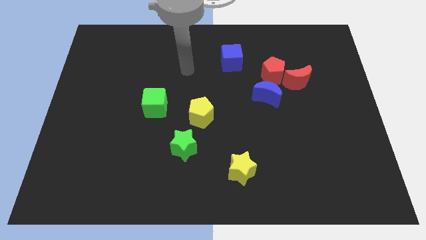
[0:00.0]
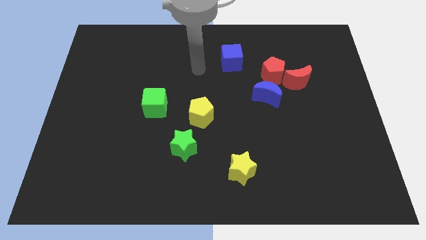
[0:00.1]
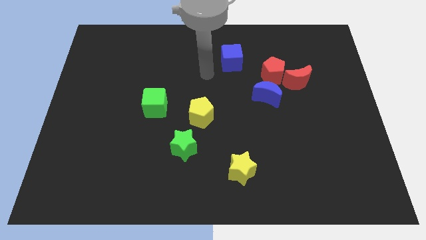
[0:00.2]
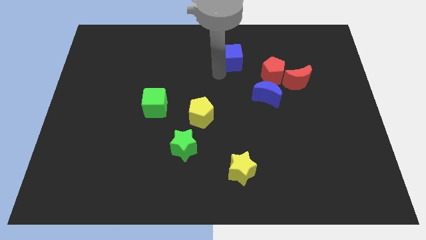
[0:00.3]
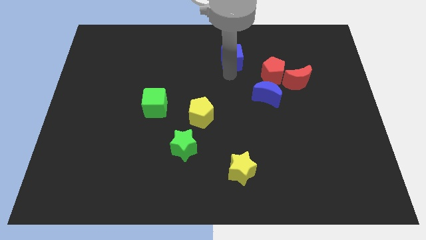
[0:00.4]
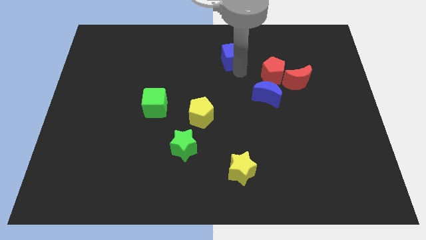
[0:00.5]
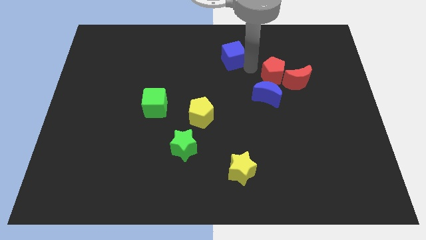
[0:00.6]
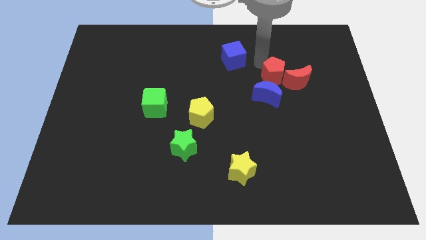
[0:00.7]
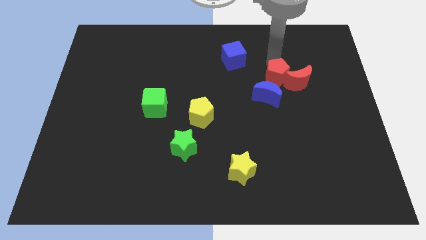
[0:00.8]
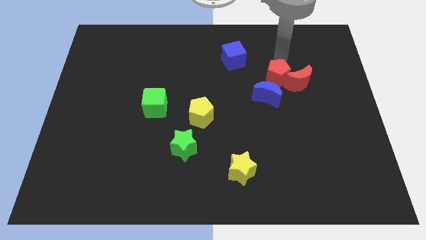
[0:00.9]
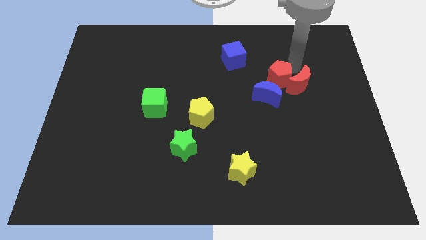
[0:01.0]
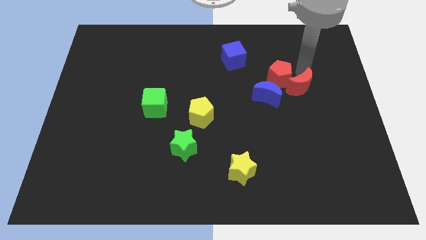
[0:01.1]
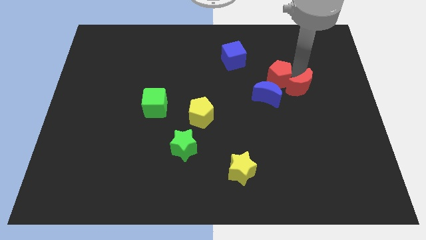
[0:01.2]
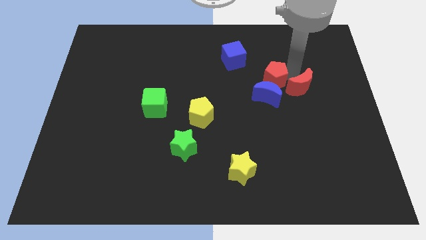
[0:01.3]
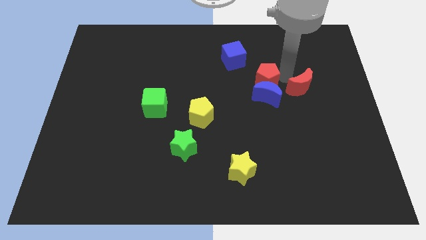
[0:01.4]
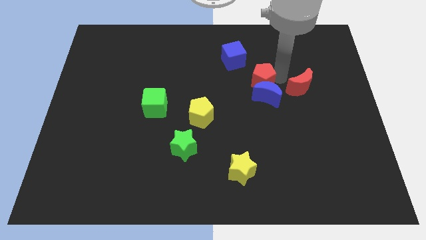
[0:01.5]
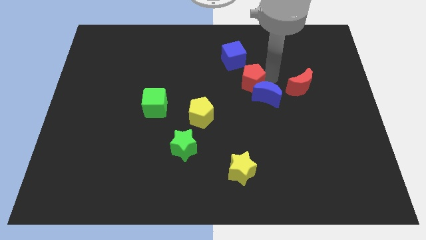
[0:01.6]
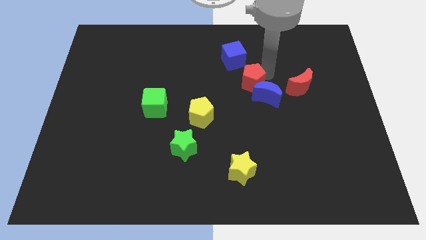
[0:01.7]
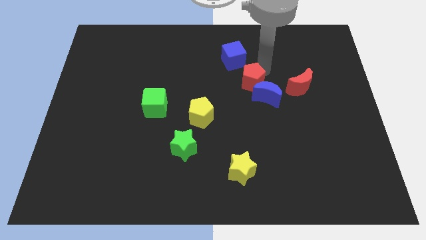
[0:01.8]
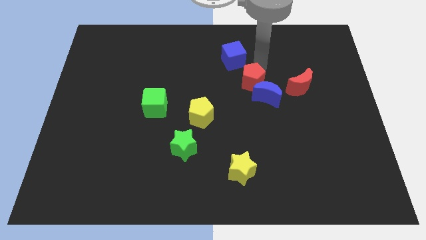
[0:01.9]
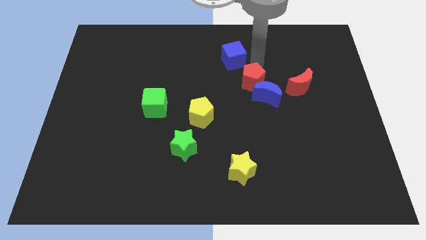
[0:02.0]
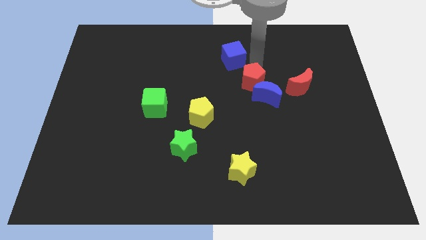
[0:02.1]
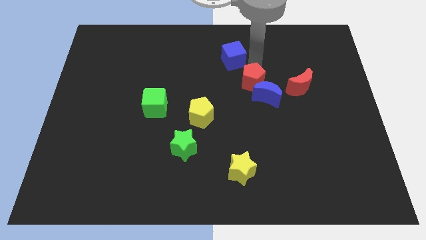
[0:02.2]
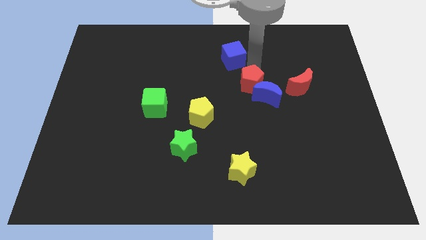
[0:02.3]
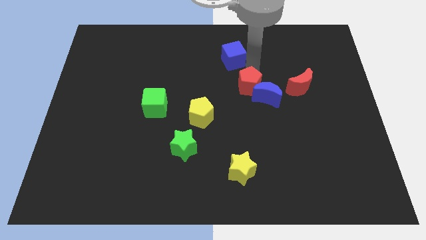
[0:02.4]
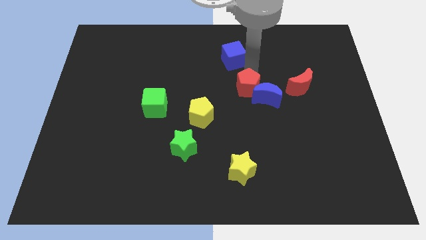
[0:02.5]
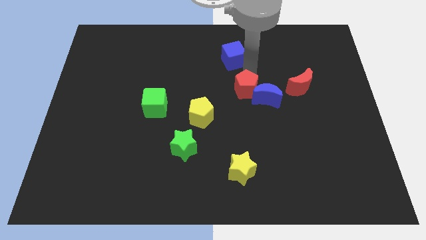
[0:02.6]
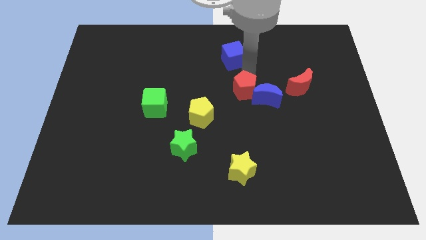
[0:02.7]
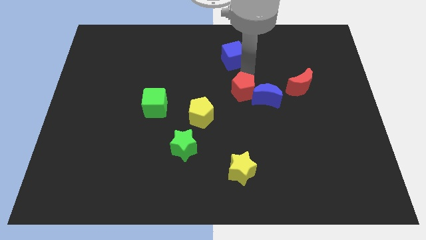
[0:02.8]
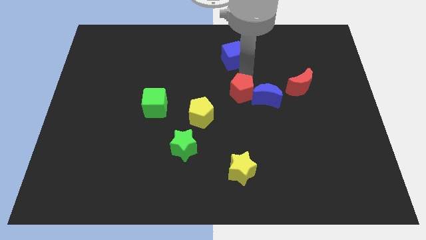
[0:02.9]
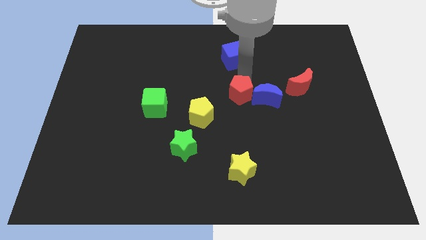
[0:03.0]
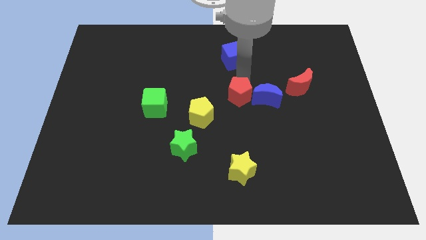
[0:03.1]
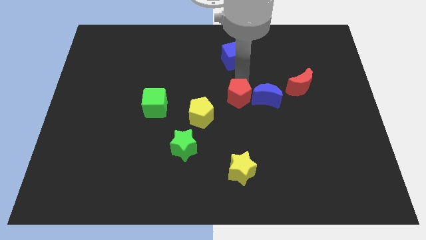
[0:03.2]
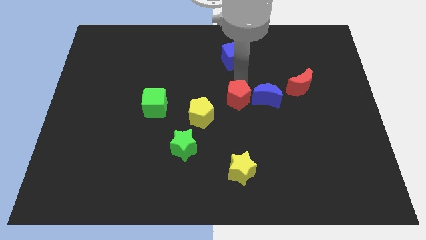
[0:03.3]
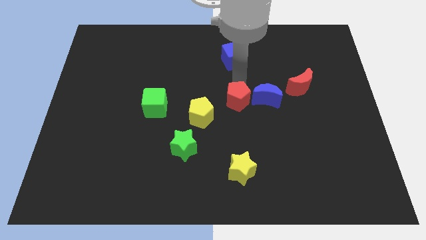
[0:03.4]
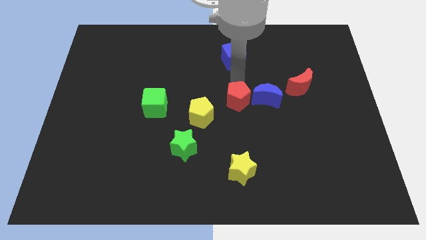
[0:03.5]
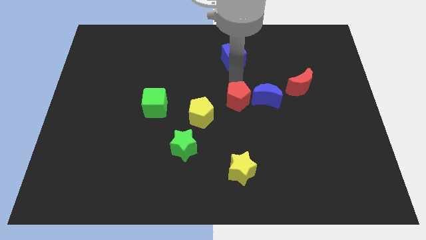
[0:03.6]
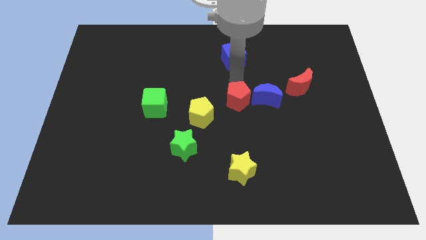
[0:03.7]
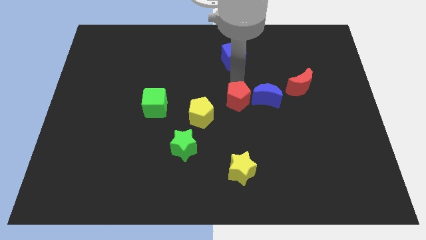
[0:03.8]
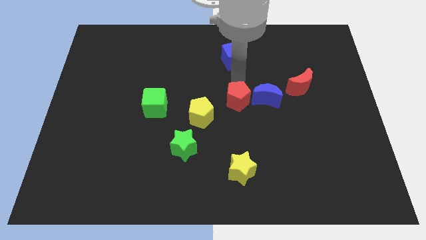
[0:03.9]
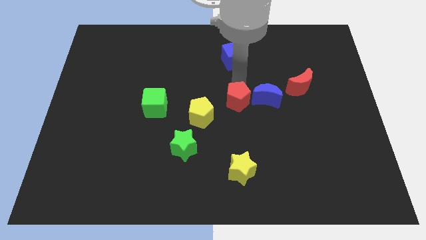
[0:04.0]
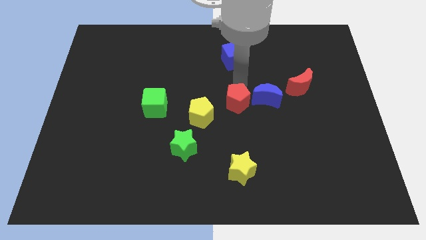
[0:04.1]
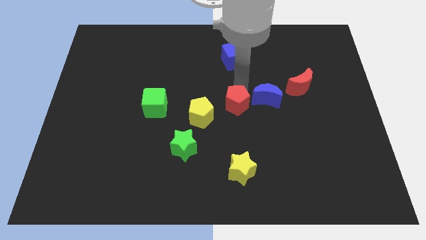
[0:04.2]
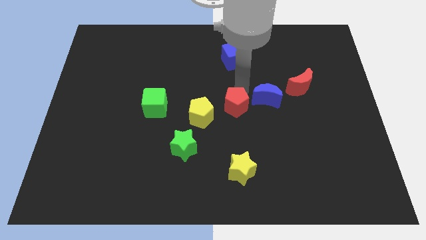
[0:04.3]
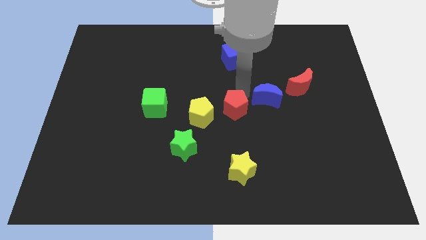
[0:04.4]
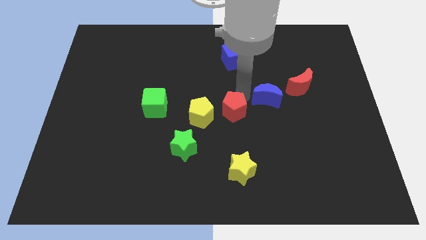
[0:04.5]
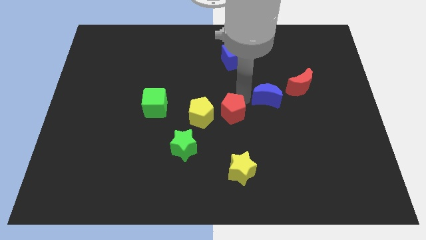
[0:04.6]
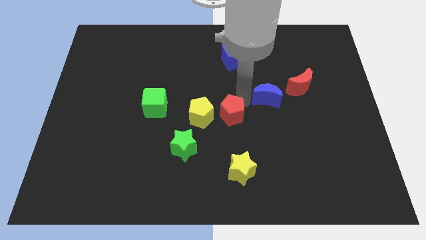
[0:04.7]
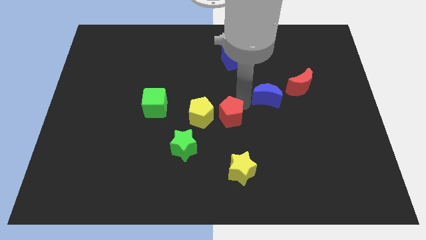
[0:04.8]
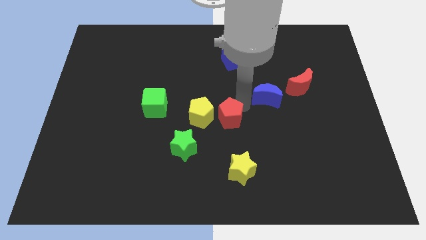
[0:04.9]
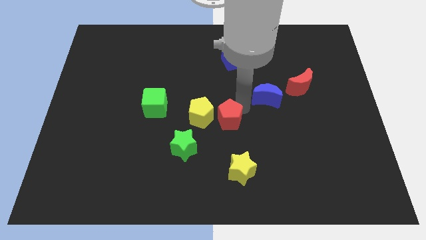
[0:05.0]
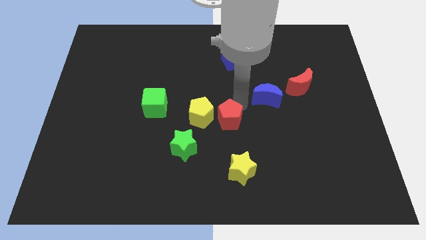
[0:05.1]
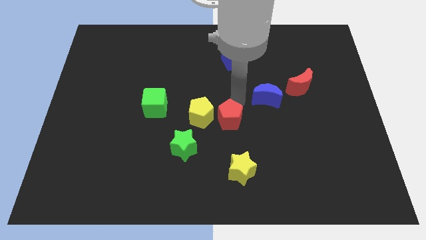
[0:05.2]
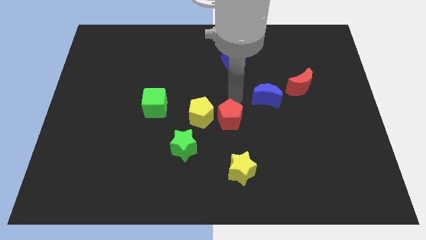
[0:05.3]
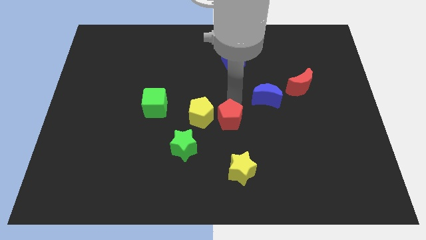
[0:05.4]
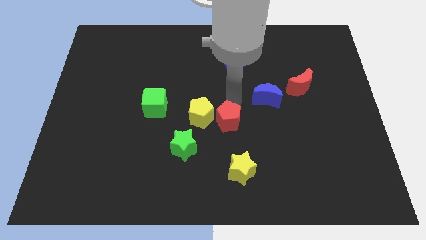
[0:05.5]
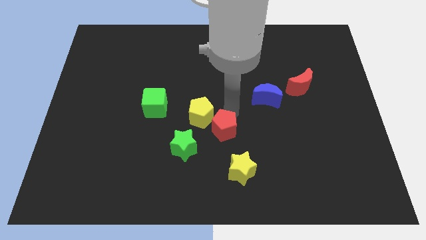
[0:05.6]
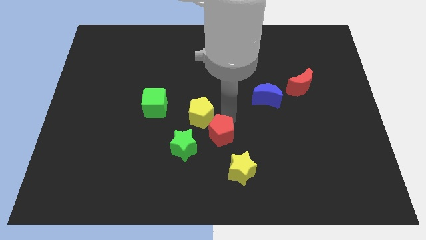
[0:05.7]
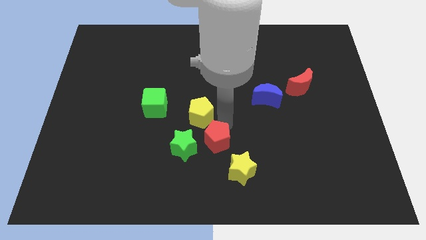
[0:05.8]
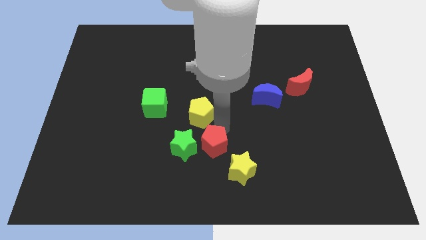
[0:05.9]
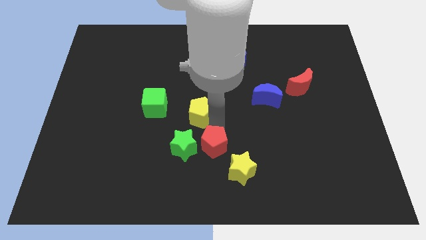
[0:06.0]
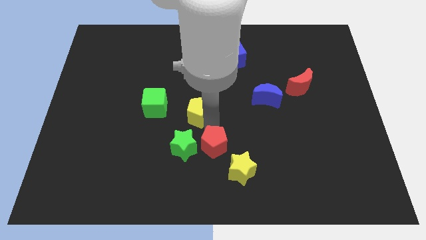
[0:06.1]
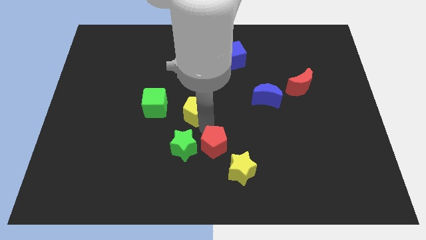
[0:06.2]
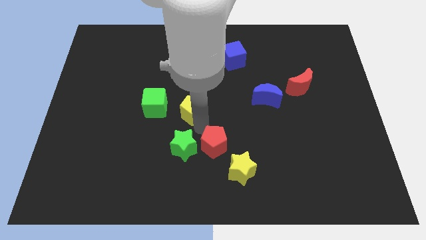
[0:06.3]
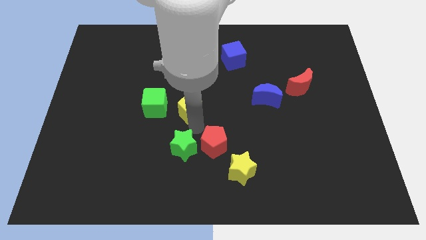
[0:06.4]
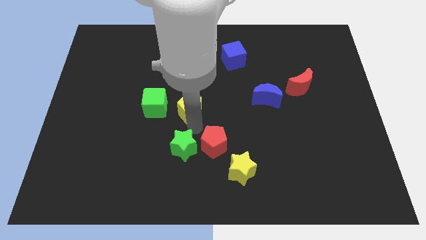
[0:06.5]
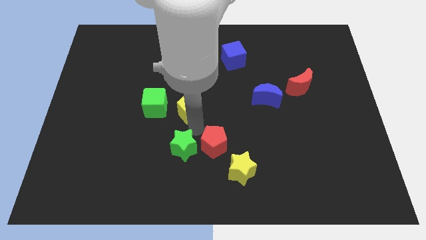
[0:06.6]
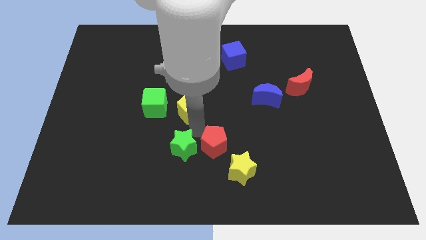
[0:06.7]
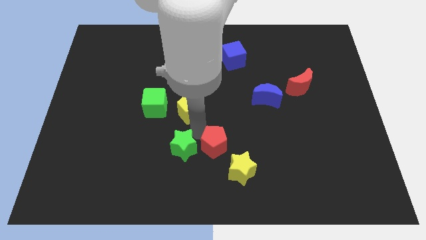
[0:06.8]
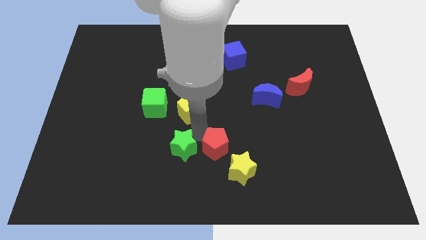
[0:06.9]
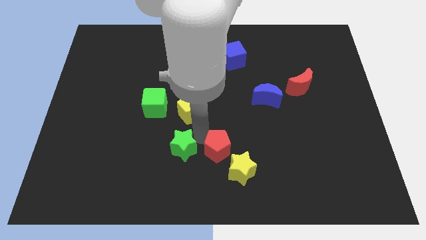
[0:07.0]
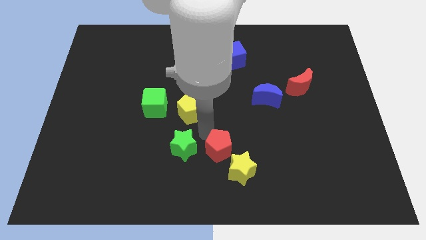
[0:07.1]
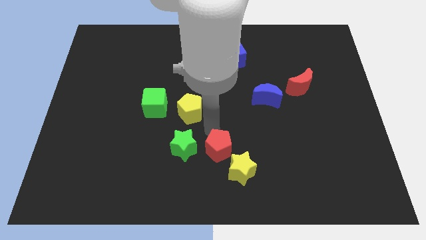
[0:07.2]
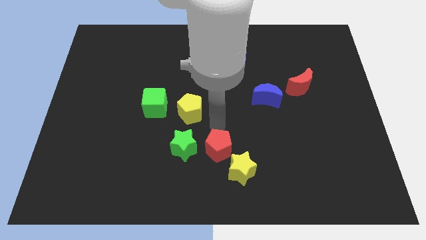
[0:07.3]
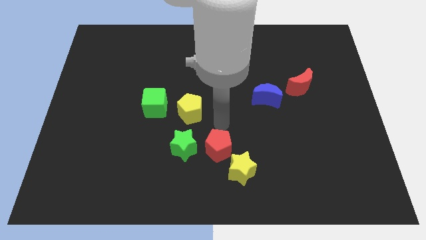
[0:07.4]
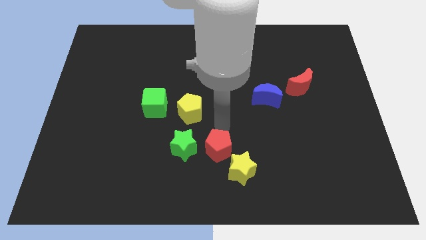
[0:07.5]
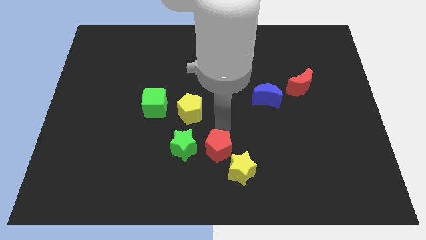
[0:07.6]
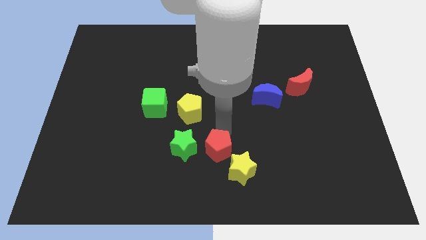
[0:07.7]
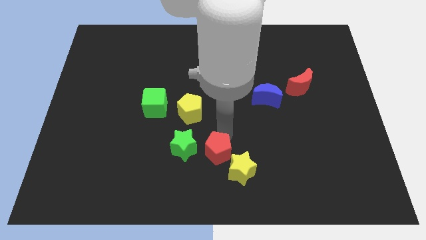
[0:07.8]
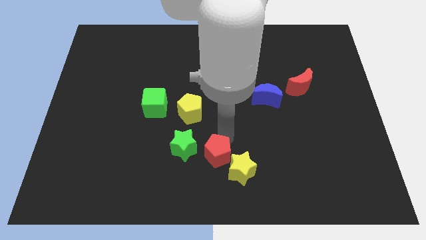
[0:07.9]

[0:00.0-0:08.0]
put the red pentagon to the bottom side
